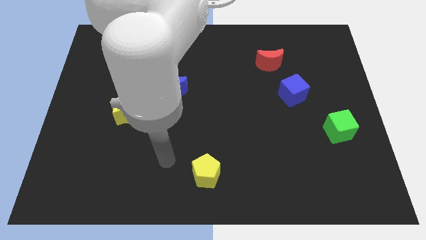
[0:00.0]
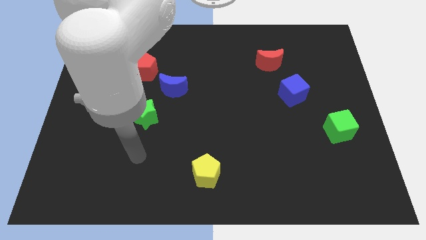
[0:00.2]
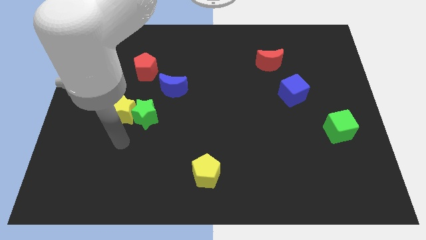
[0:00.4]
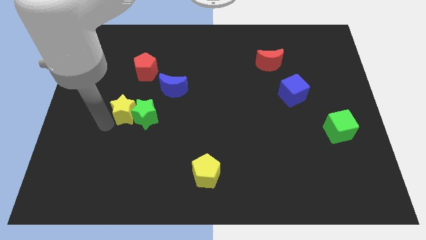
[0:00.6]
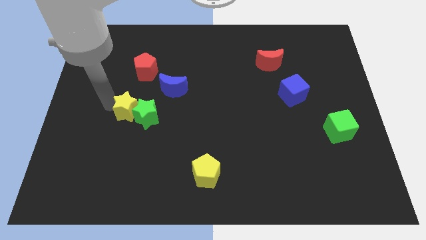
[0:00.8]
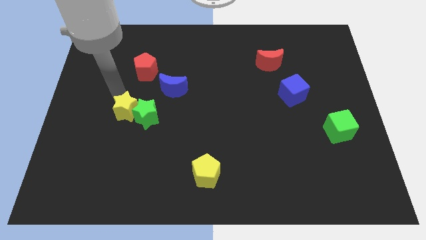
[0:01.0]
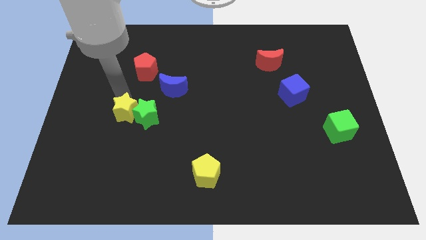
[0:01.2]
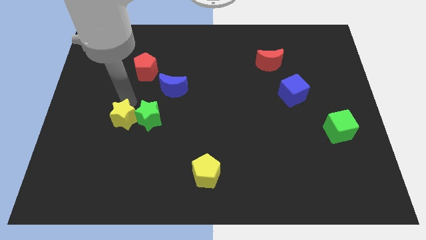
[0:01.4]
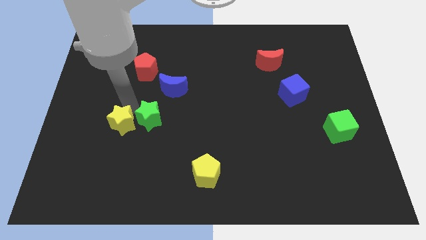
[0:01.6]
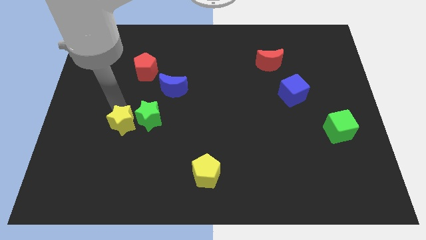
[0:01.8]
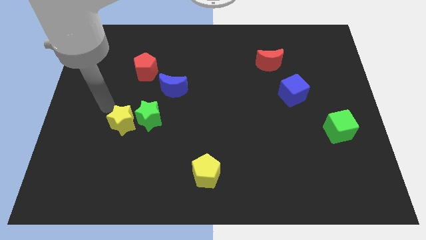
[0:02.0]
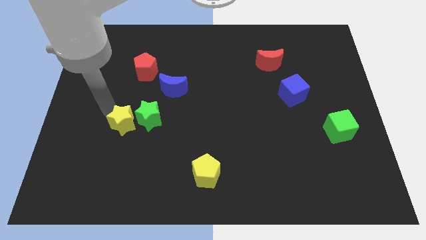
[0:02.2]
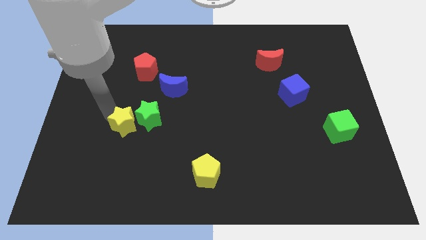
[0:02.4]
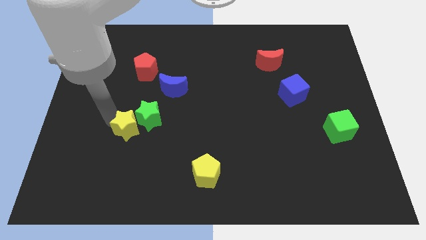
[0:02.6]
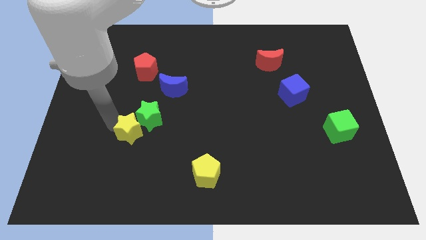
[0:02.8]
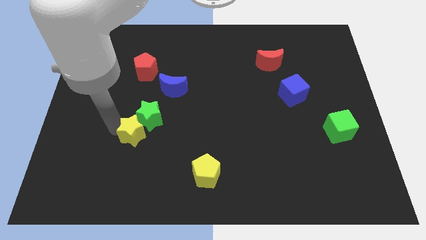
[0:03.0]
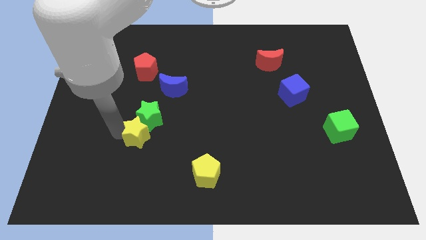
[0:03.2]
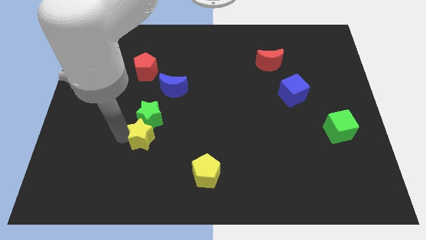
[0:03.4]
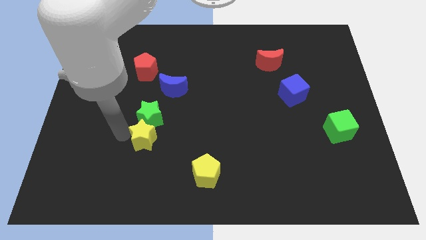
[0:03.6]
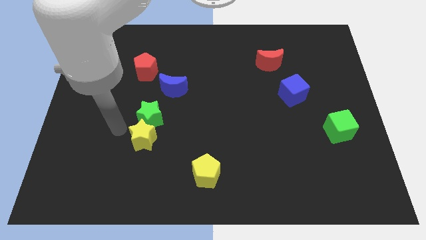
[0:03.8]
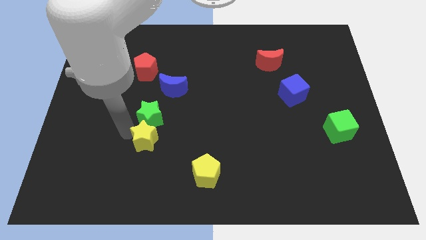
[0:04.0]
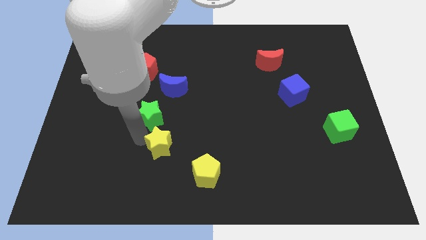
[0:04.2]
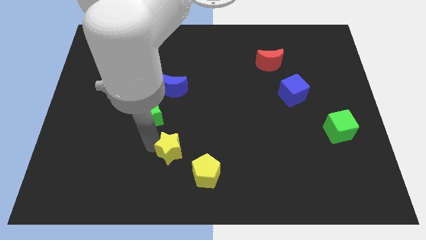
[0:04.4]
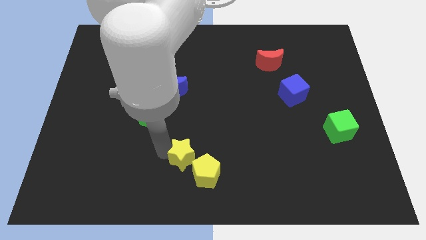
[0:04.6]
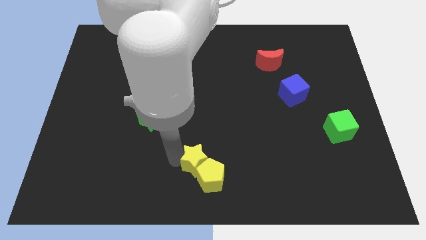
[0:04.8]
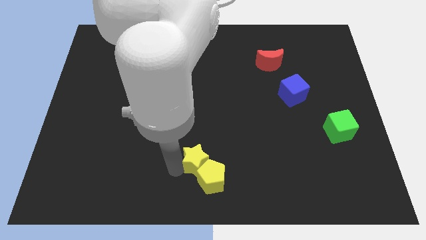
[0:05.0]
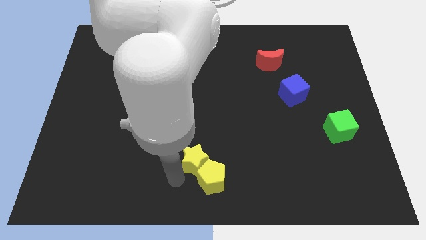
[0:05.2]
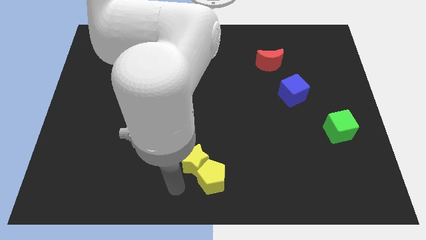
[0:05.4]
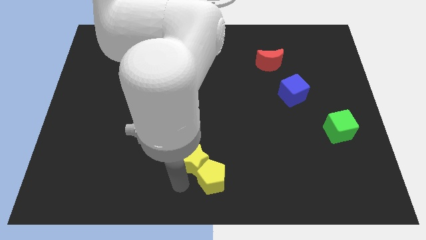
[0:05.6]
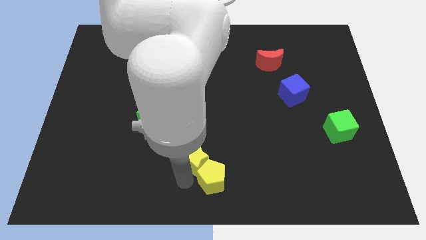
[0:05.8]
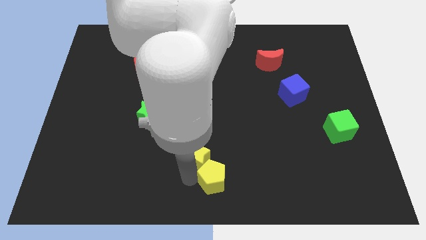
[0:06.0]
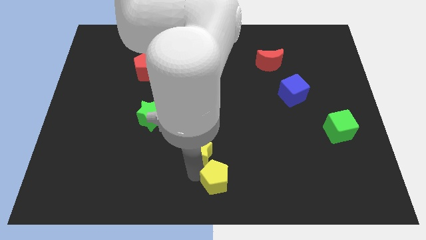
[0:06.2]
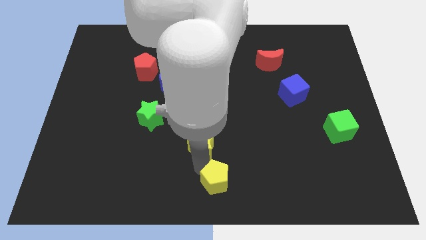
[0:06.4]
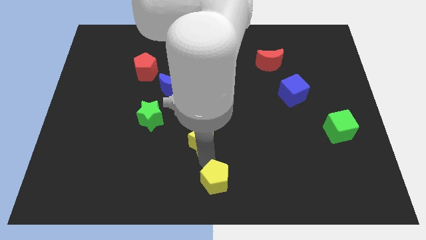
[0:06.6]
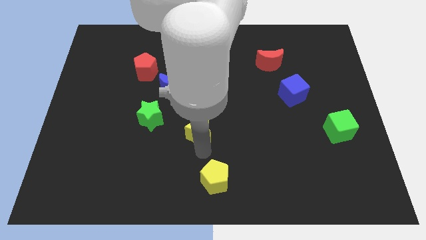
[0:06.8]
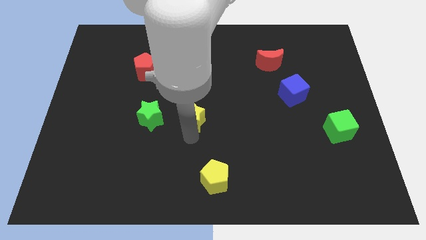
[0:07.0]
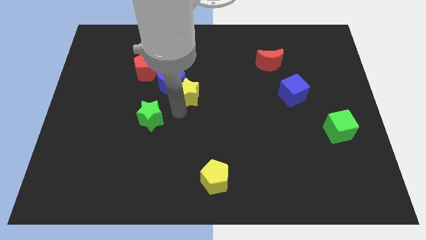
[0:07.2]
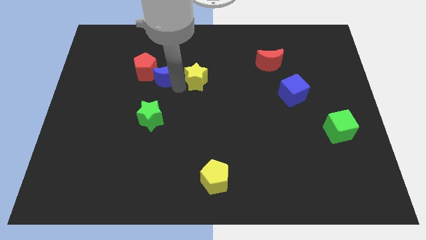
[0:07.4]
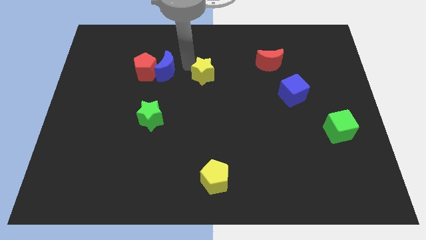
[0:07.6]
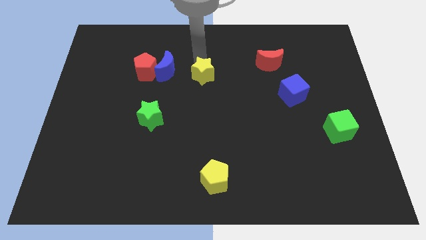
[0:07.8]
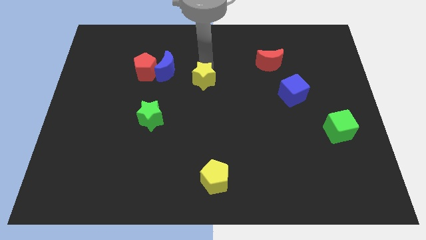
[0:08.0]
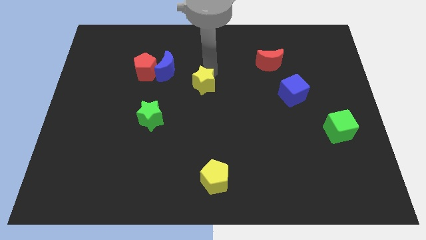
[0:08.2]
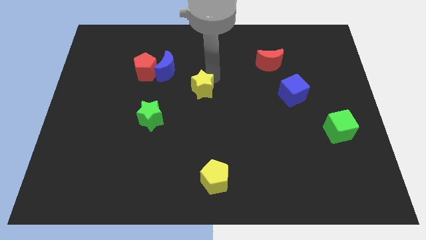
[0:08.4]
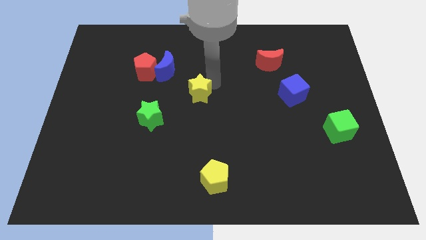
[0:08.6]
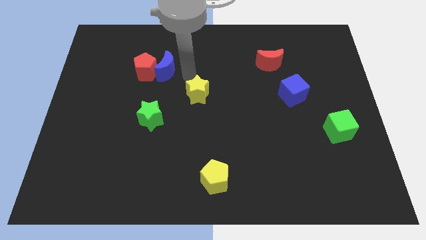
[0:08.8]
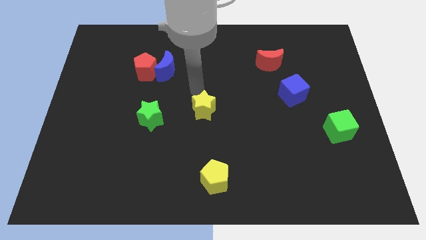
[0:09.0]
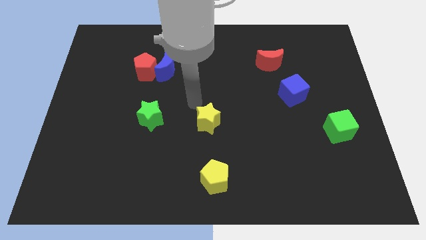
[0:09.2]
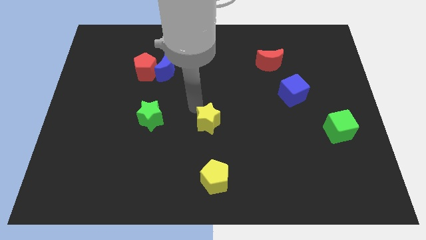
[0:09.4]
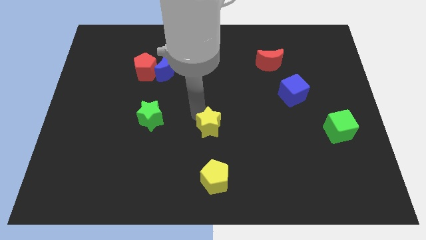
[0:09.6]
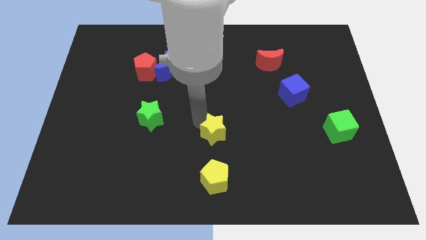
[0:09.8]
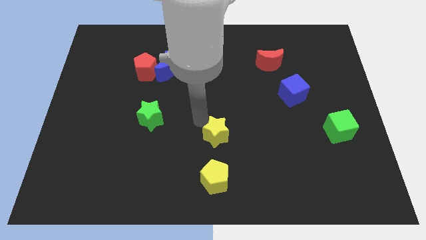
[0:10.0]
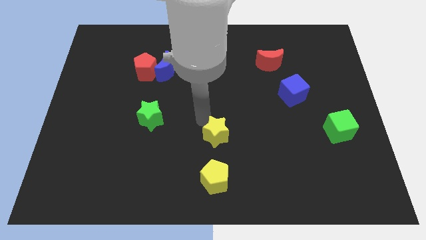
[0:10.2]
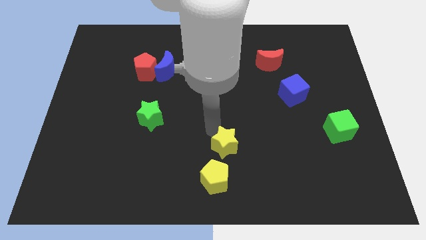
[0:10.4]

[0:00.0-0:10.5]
push the yellow star to the top right side of the yellow pentagon

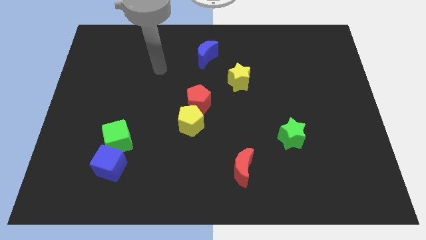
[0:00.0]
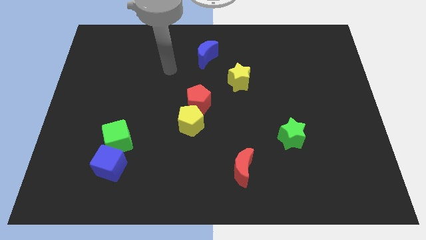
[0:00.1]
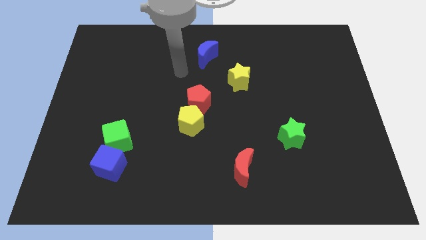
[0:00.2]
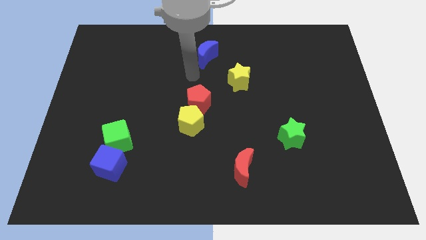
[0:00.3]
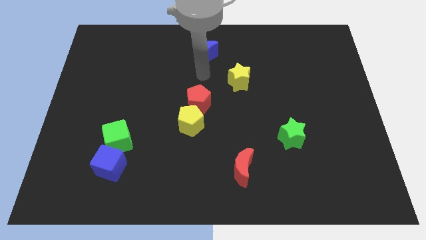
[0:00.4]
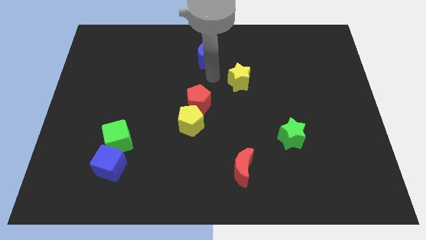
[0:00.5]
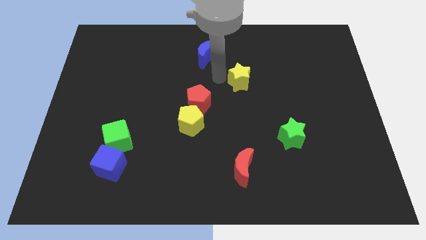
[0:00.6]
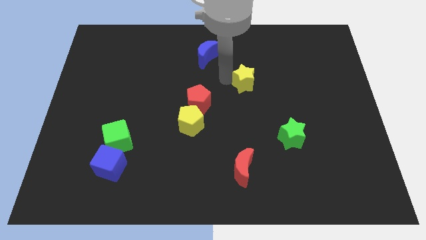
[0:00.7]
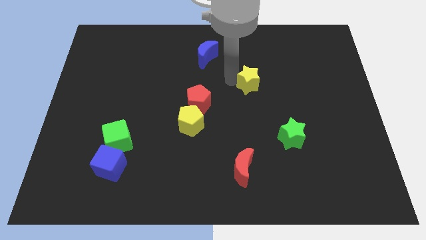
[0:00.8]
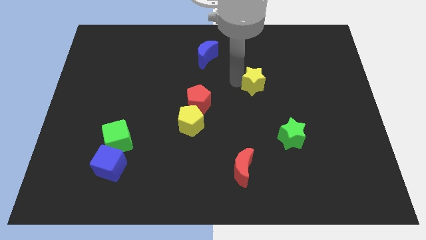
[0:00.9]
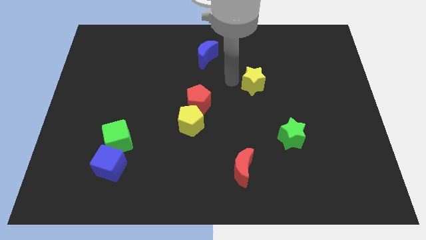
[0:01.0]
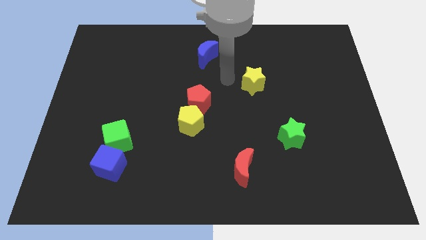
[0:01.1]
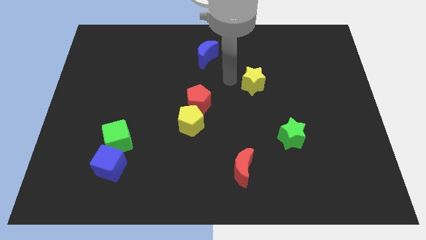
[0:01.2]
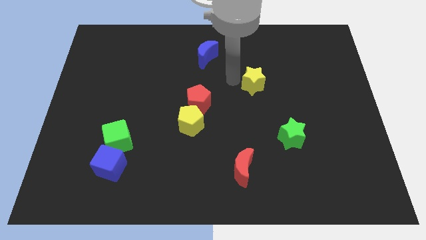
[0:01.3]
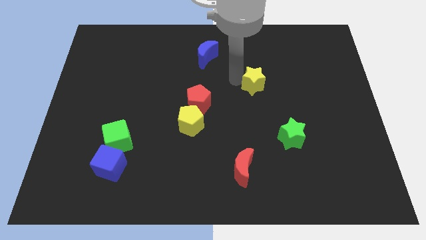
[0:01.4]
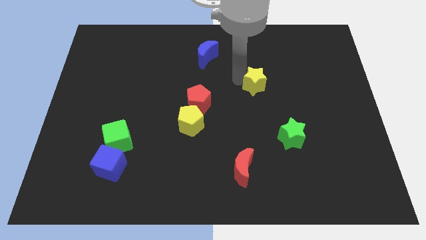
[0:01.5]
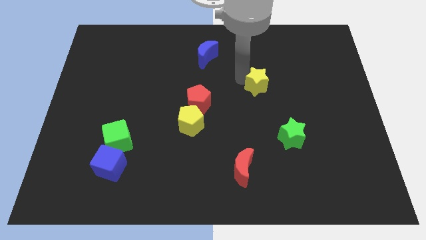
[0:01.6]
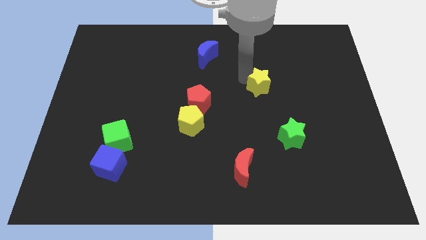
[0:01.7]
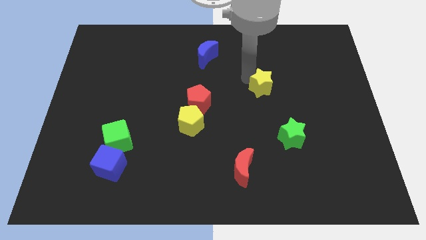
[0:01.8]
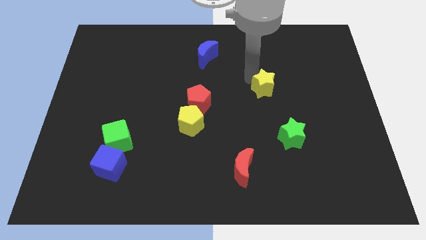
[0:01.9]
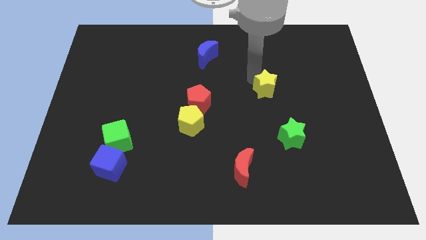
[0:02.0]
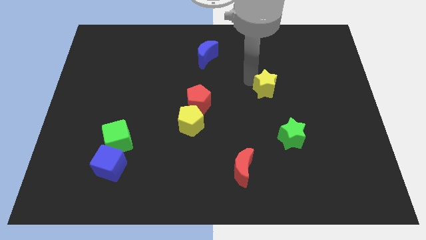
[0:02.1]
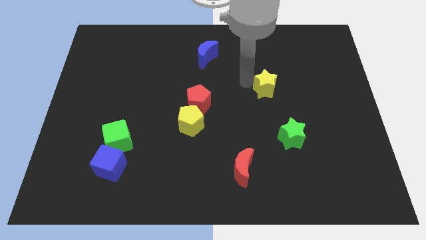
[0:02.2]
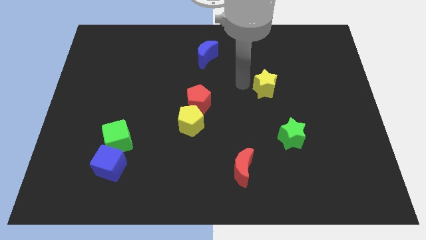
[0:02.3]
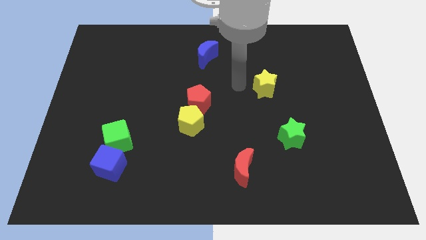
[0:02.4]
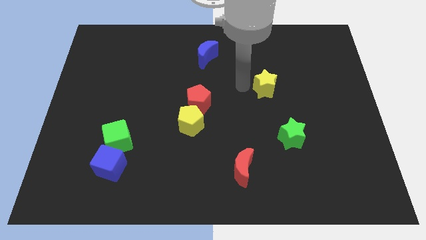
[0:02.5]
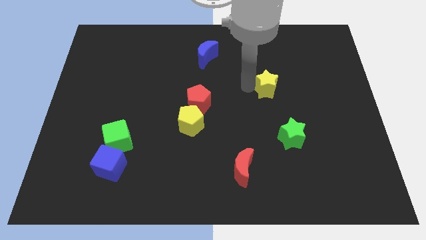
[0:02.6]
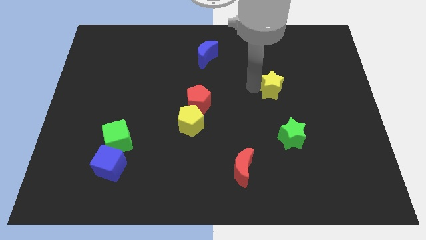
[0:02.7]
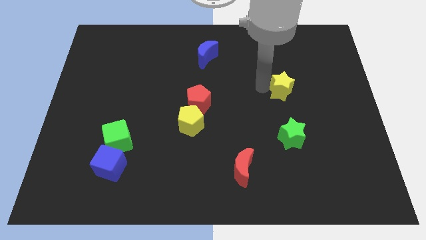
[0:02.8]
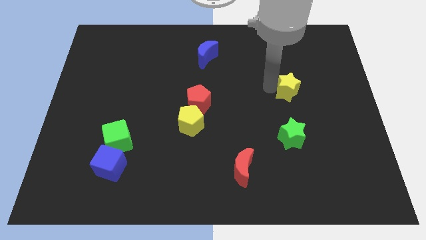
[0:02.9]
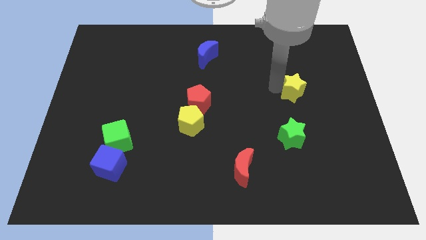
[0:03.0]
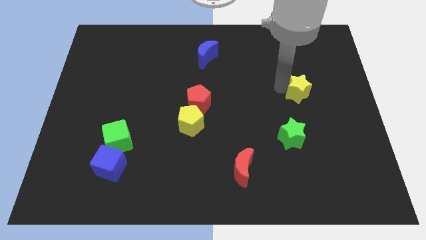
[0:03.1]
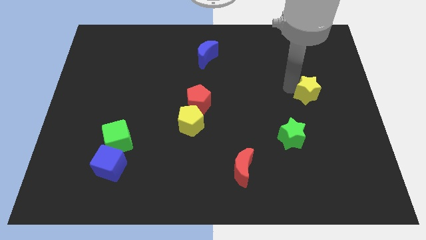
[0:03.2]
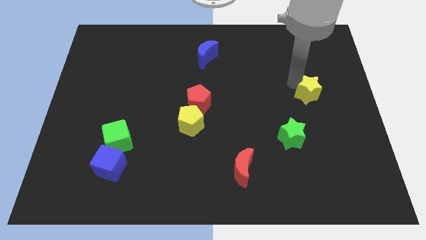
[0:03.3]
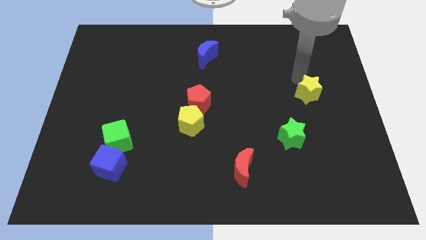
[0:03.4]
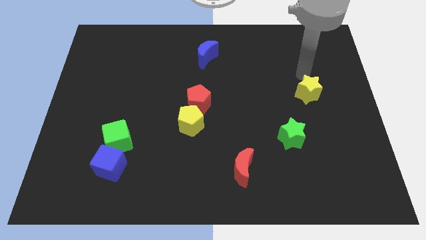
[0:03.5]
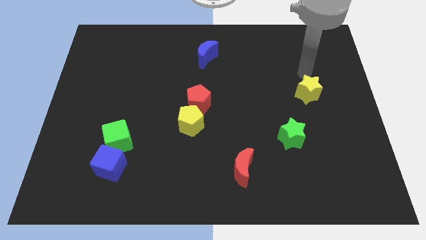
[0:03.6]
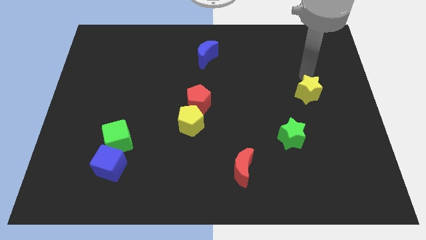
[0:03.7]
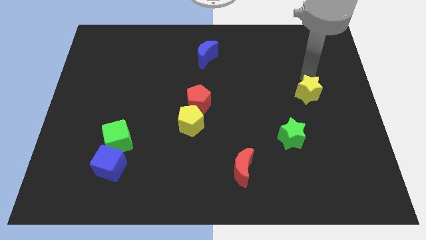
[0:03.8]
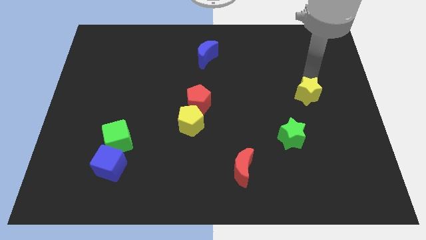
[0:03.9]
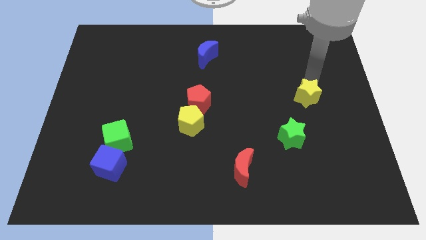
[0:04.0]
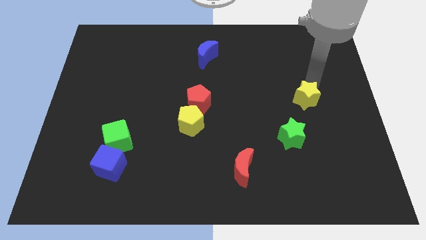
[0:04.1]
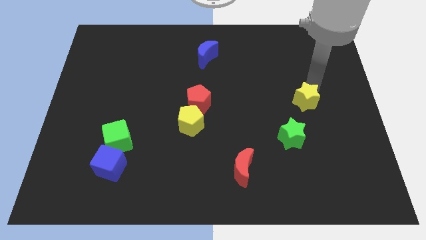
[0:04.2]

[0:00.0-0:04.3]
slide the yellow star to the top right side of the green star
